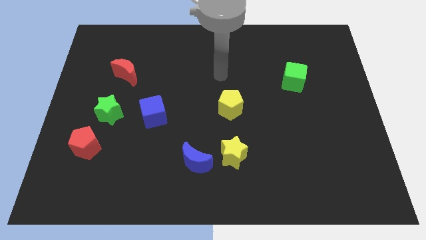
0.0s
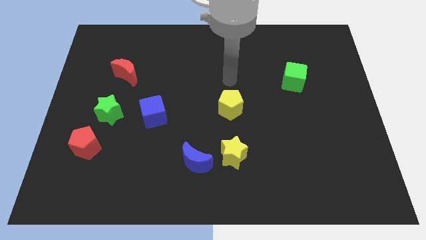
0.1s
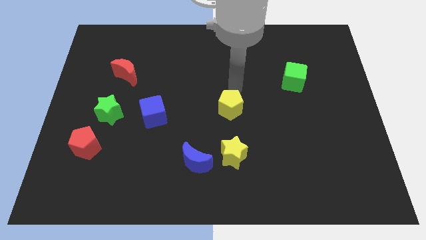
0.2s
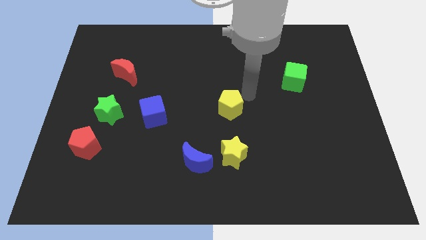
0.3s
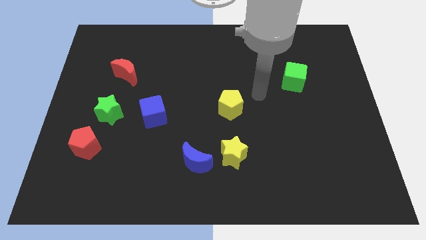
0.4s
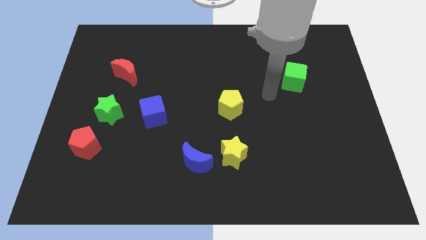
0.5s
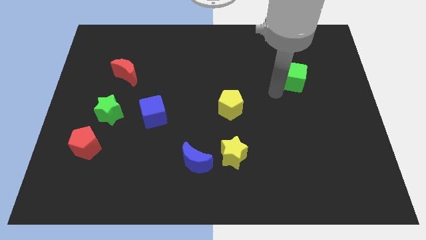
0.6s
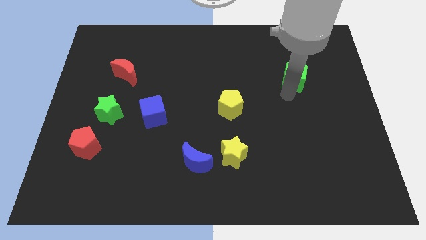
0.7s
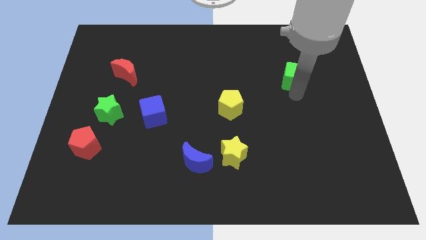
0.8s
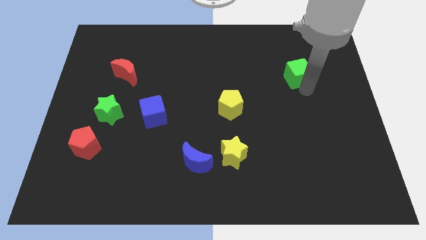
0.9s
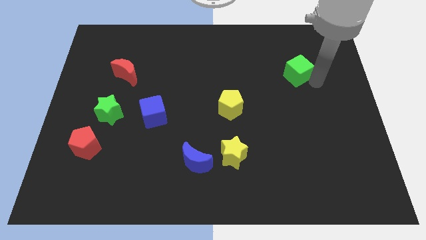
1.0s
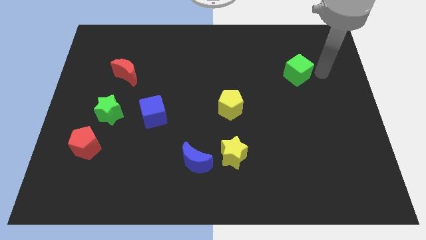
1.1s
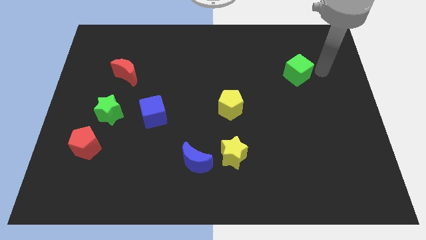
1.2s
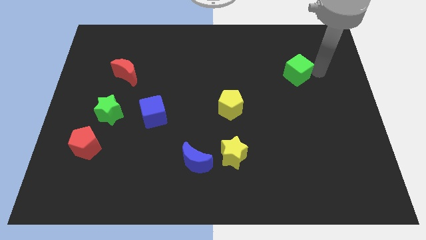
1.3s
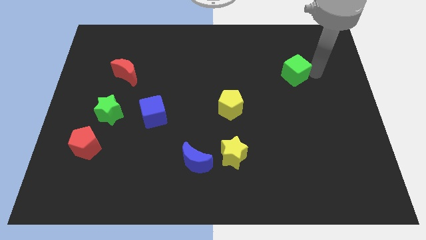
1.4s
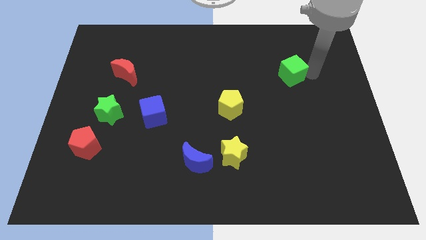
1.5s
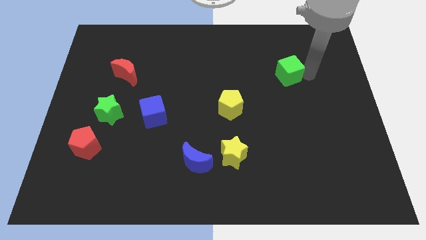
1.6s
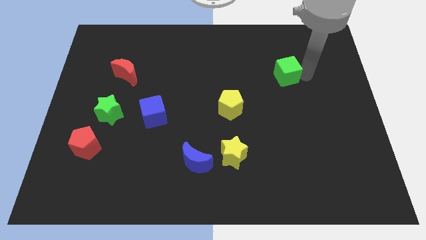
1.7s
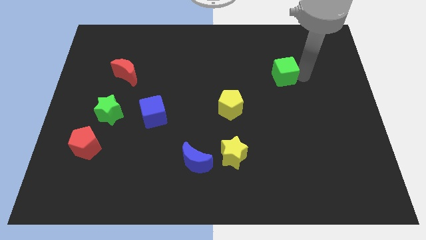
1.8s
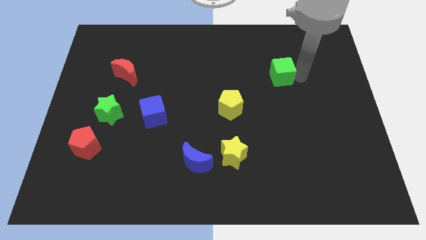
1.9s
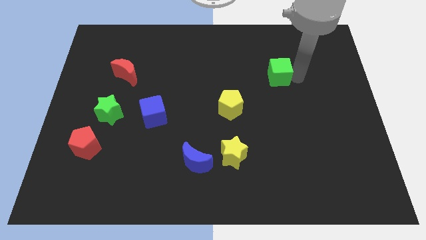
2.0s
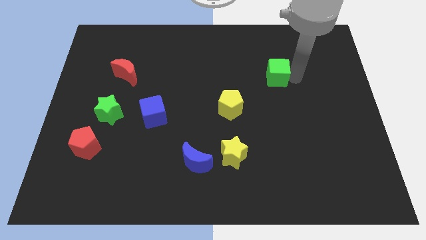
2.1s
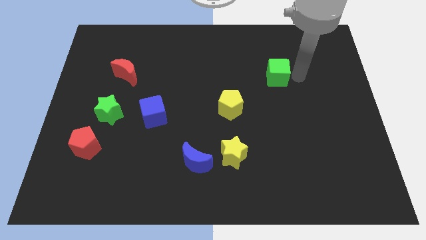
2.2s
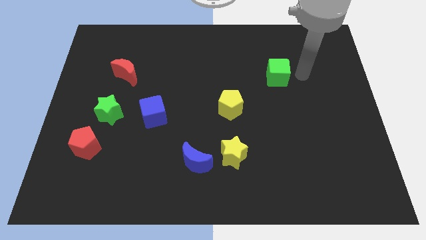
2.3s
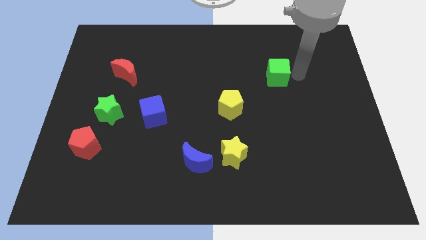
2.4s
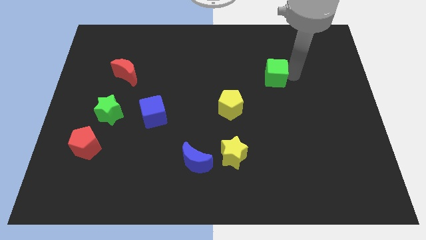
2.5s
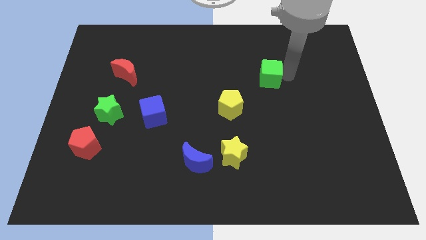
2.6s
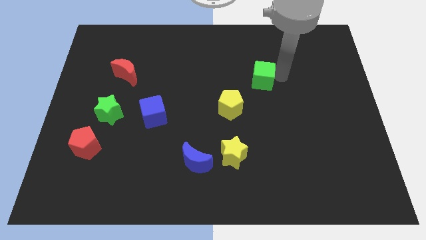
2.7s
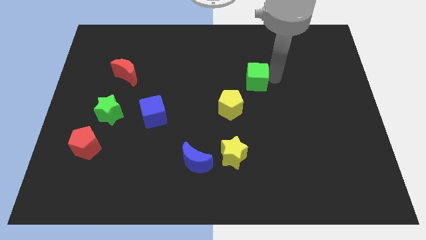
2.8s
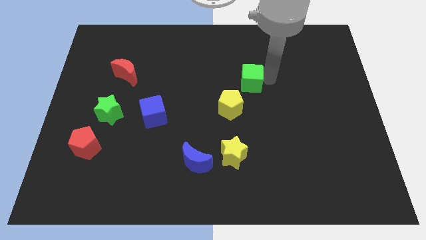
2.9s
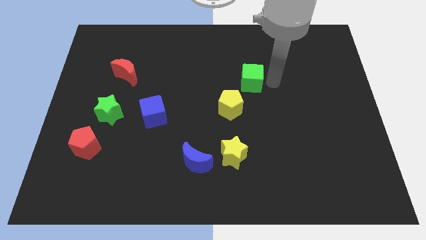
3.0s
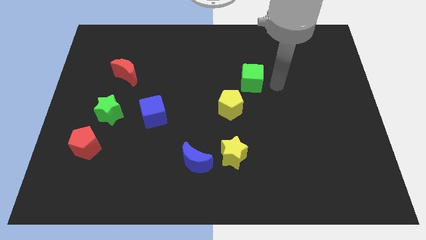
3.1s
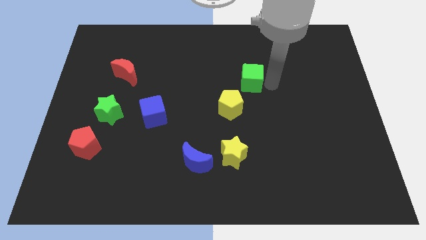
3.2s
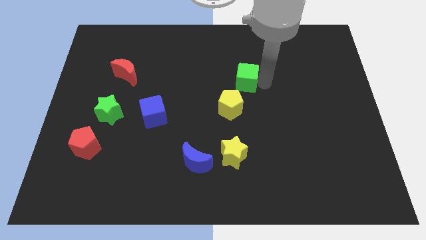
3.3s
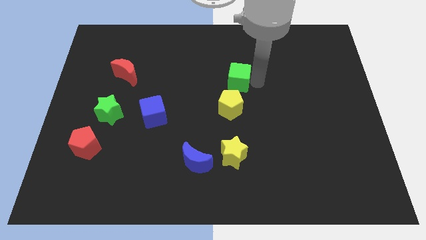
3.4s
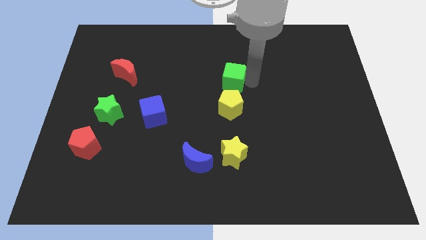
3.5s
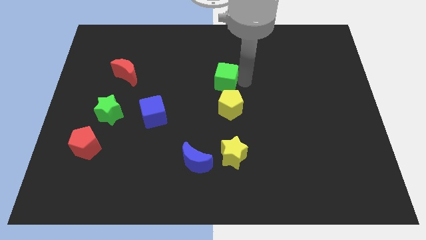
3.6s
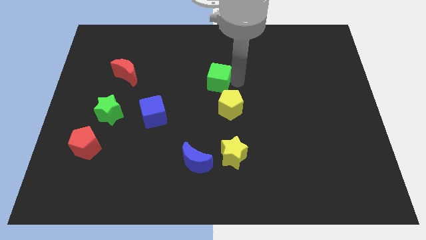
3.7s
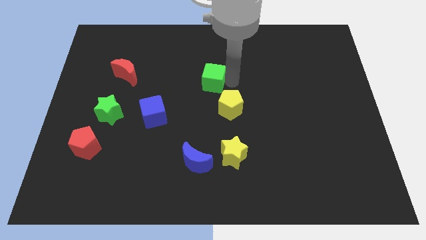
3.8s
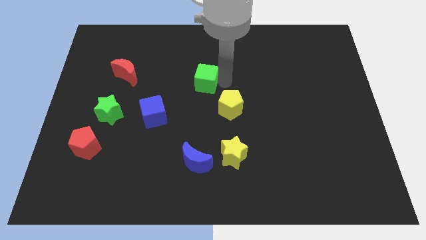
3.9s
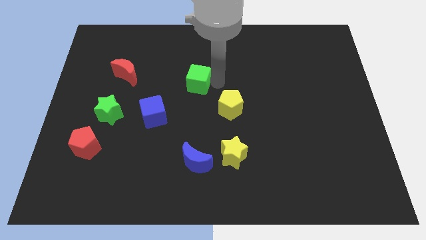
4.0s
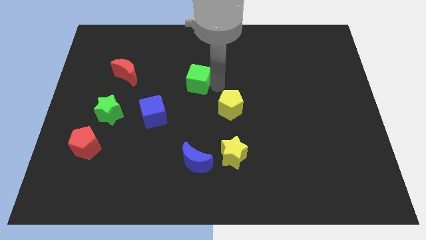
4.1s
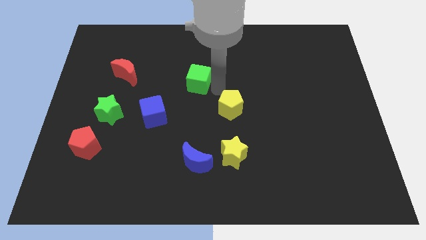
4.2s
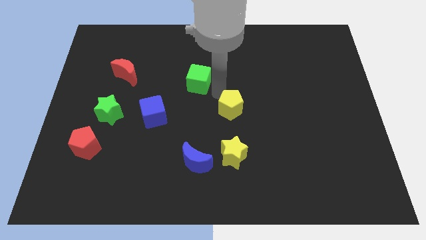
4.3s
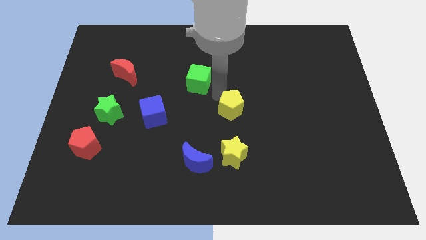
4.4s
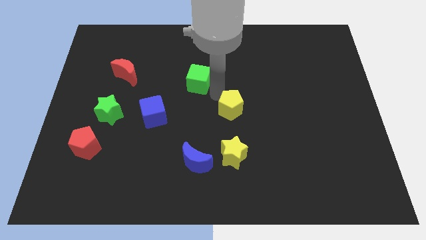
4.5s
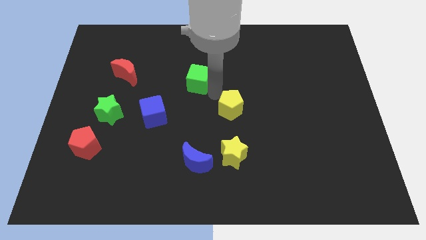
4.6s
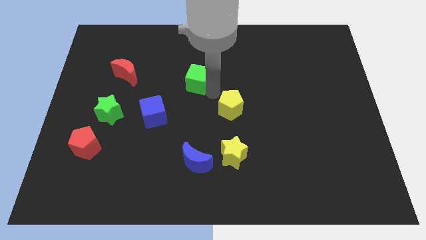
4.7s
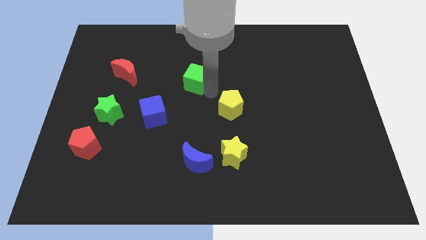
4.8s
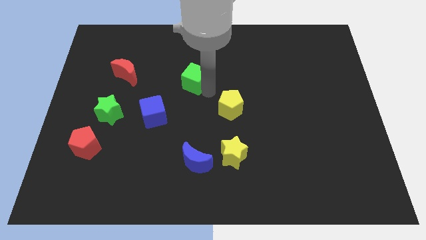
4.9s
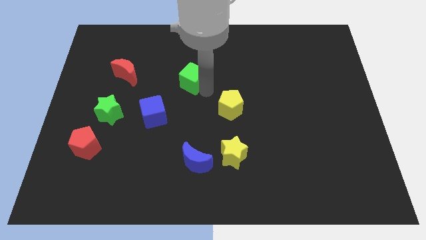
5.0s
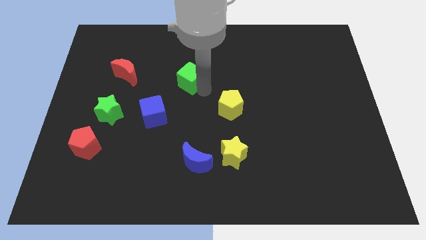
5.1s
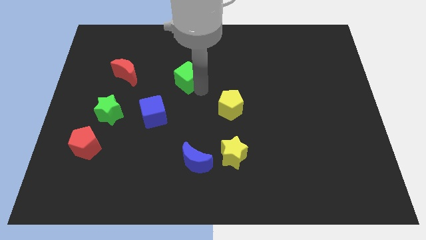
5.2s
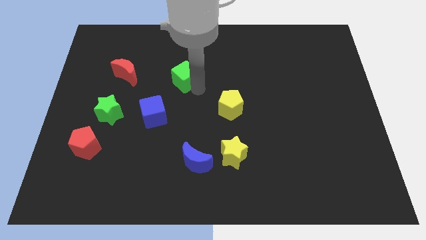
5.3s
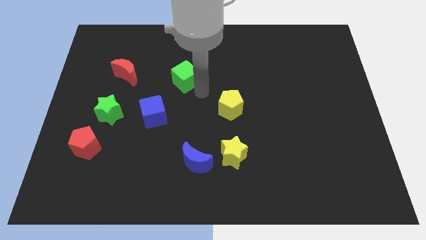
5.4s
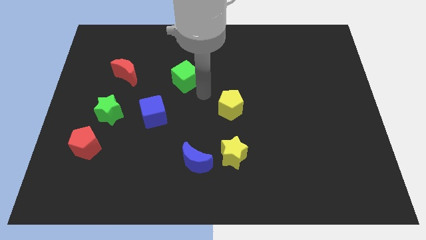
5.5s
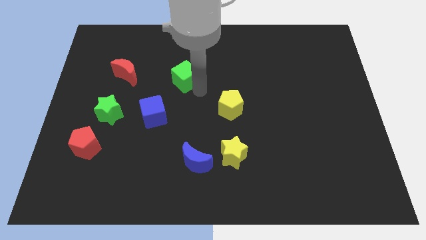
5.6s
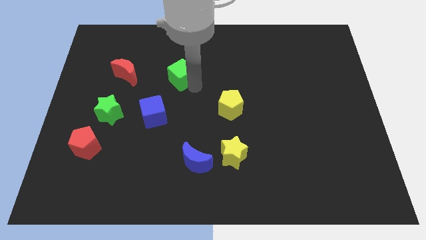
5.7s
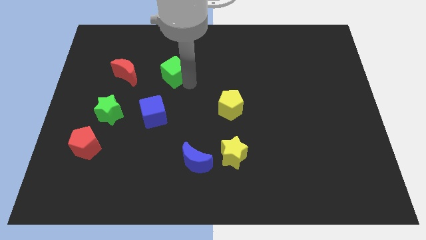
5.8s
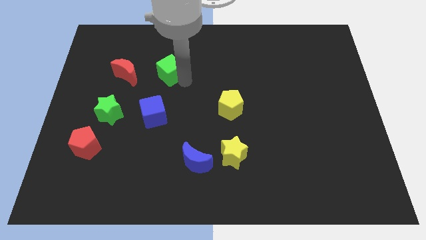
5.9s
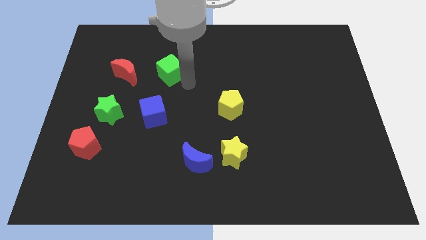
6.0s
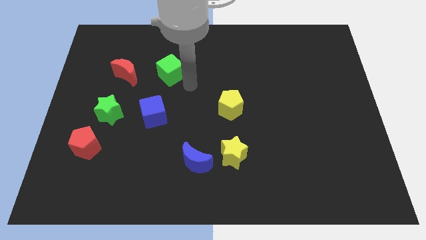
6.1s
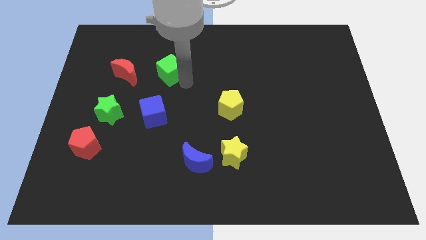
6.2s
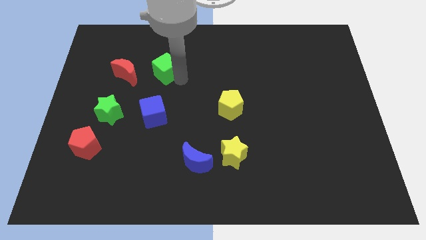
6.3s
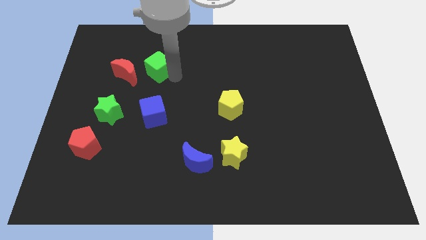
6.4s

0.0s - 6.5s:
slide the green cube to the top right of the red moon

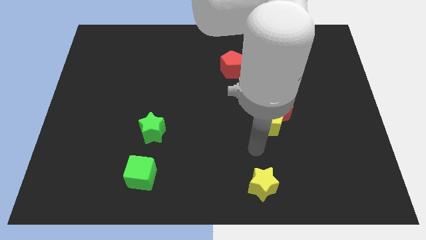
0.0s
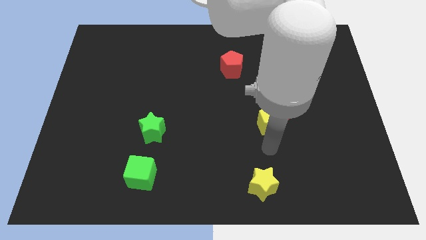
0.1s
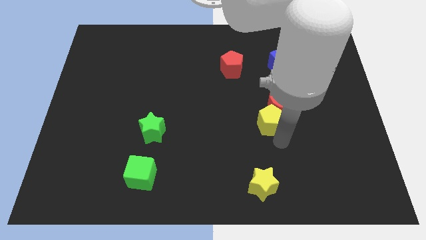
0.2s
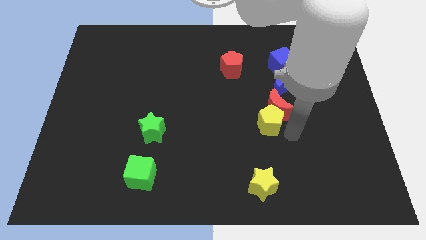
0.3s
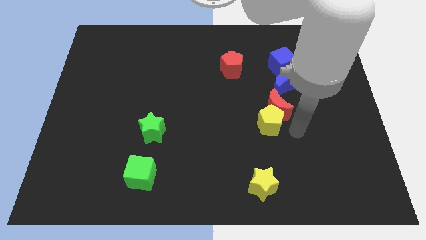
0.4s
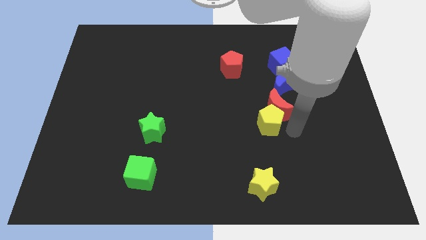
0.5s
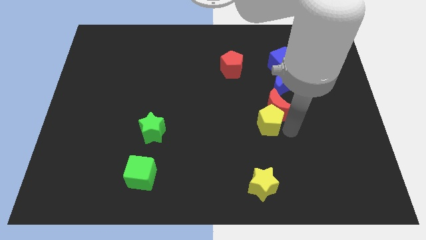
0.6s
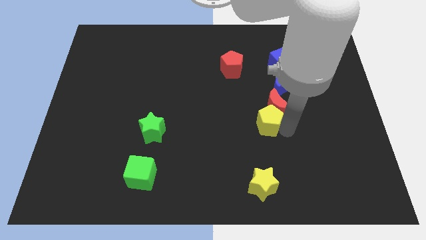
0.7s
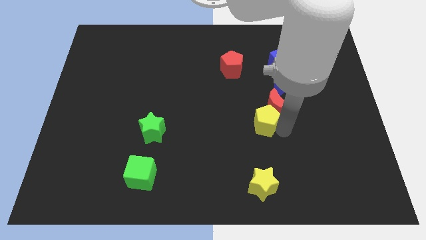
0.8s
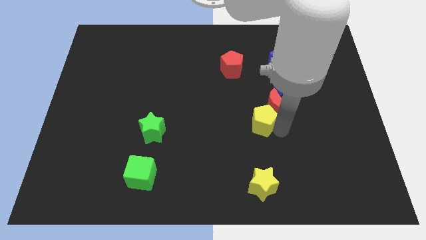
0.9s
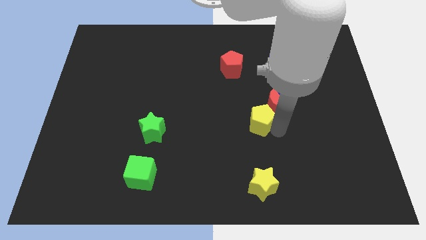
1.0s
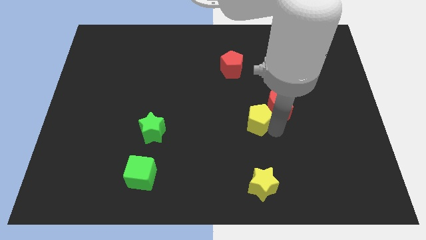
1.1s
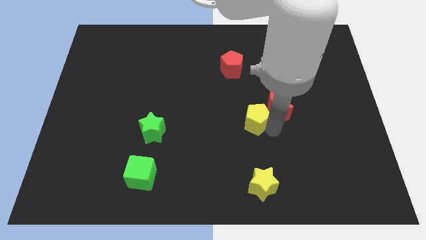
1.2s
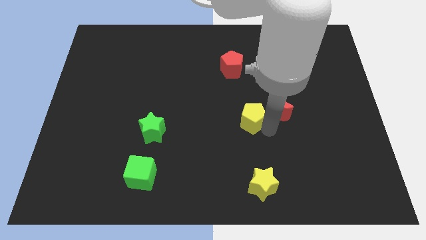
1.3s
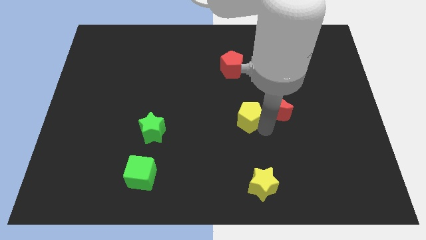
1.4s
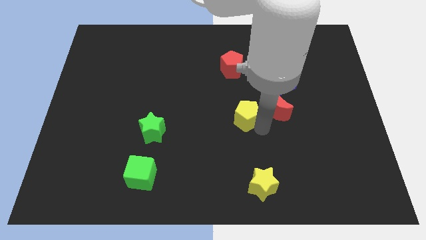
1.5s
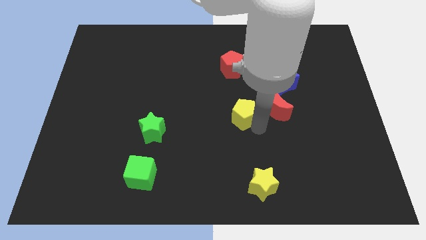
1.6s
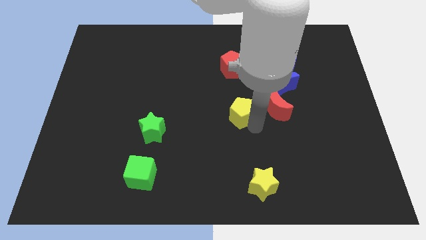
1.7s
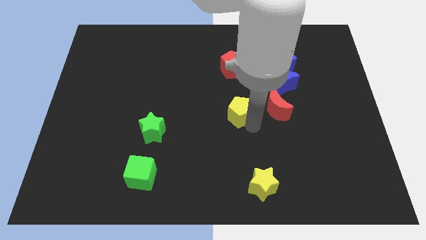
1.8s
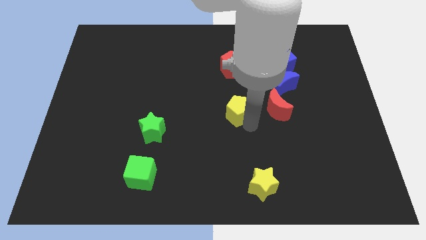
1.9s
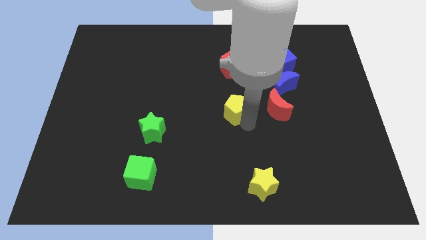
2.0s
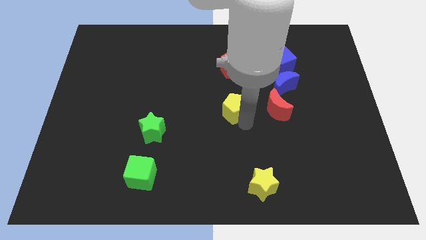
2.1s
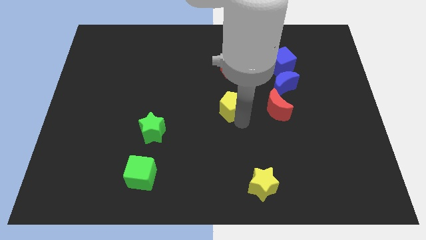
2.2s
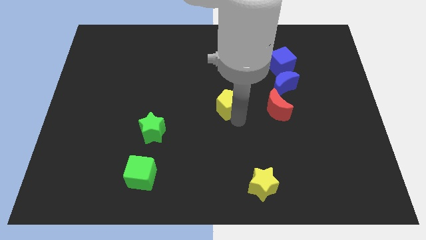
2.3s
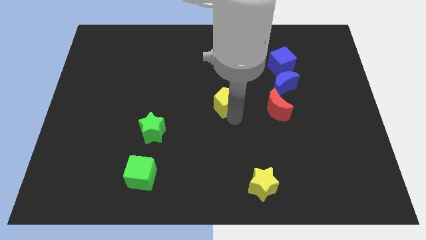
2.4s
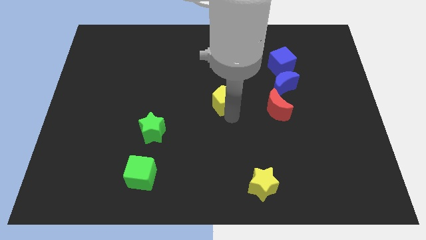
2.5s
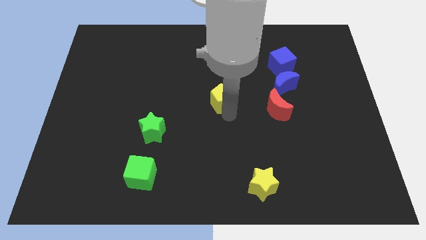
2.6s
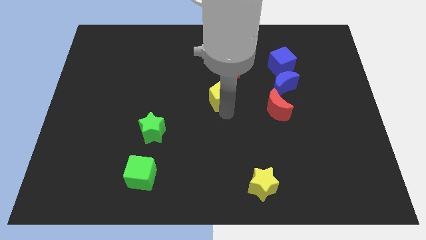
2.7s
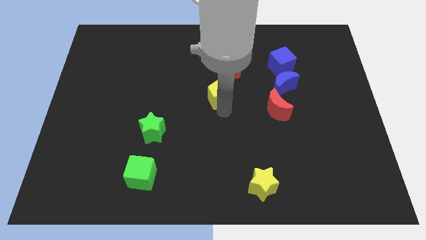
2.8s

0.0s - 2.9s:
move the yellow pentagon to the bottom left side of the red pentagon
